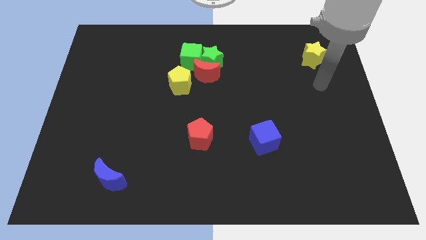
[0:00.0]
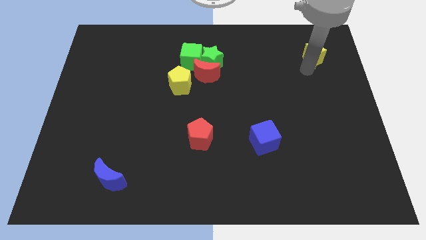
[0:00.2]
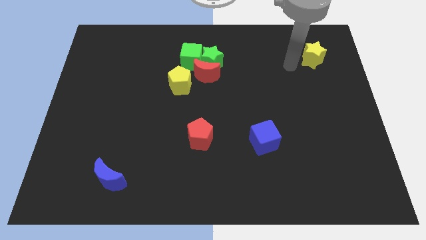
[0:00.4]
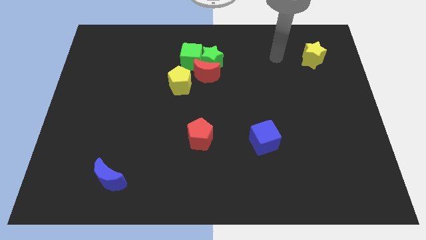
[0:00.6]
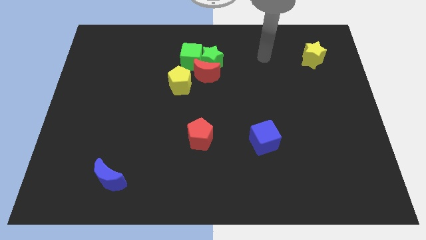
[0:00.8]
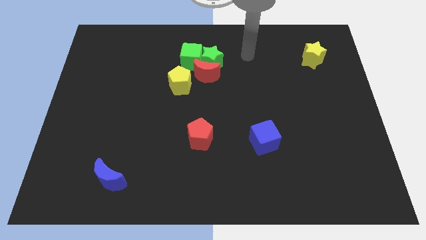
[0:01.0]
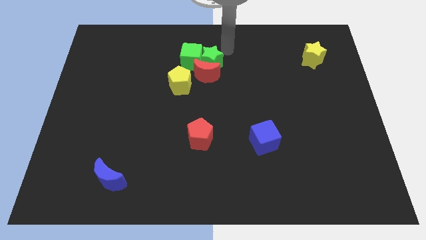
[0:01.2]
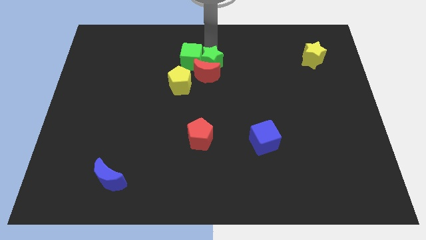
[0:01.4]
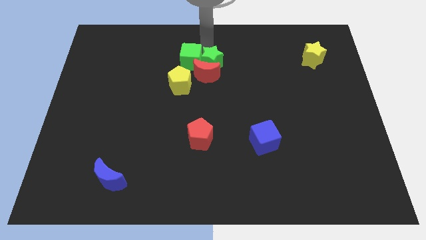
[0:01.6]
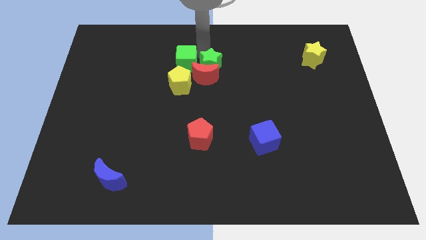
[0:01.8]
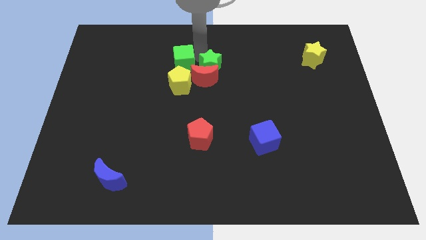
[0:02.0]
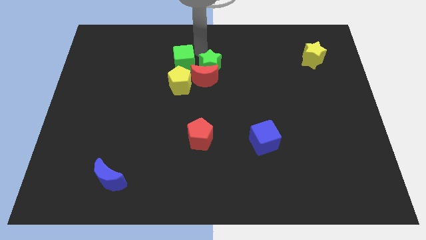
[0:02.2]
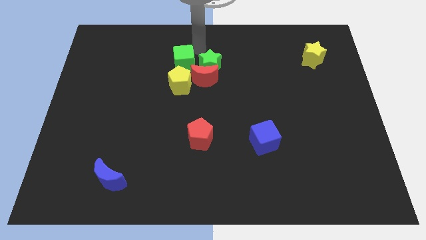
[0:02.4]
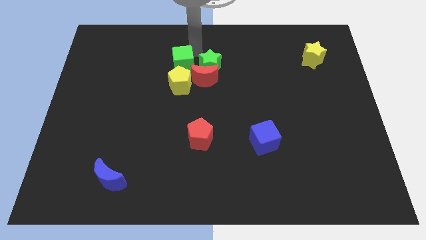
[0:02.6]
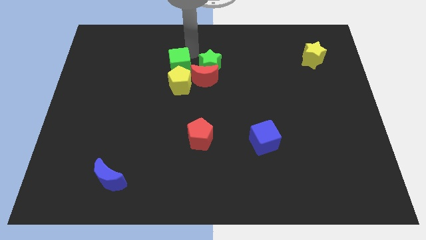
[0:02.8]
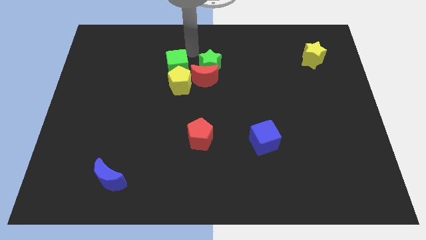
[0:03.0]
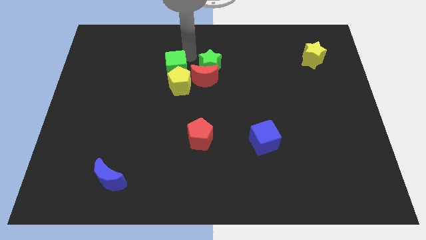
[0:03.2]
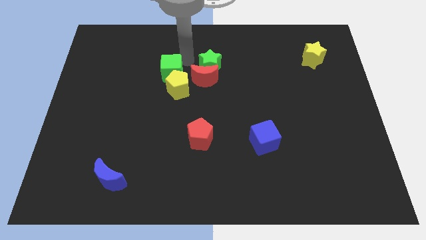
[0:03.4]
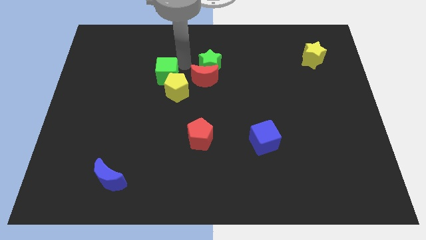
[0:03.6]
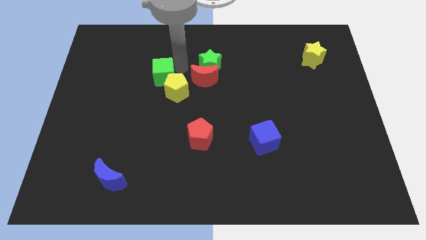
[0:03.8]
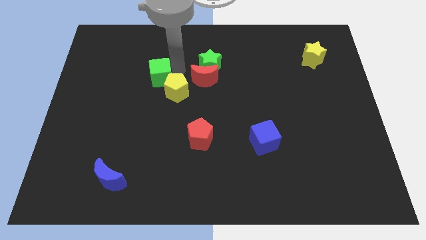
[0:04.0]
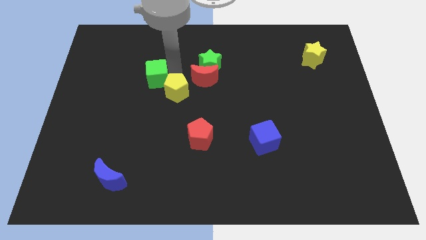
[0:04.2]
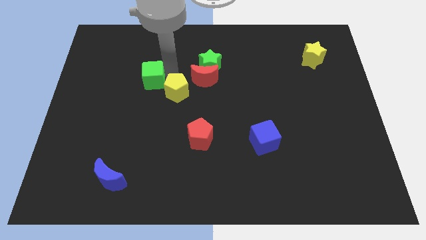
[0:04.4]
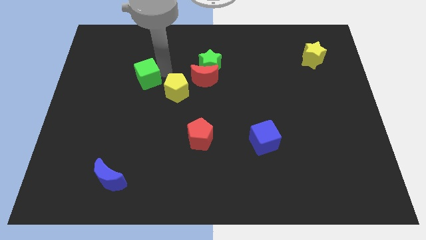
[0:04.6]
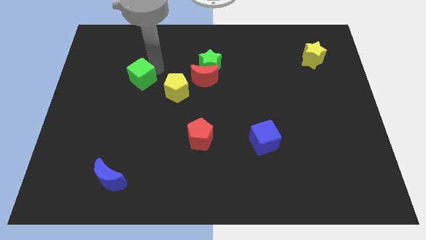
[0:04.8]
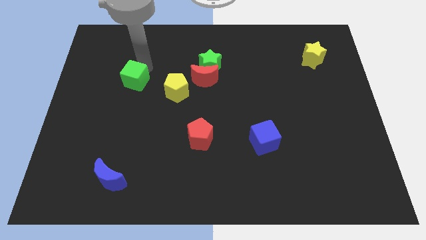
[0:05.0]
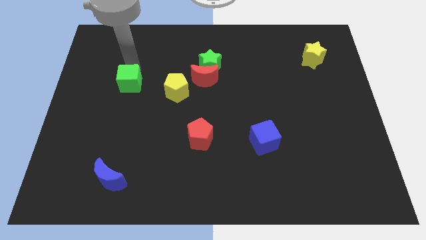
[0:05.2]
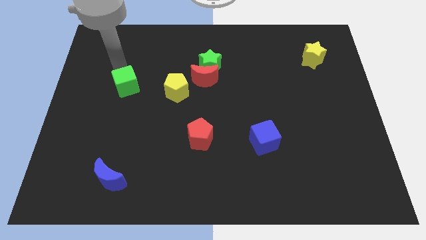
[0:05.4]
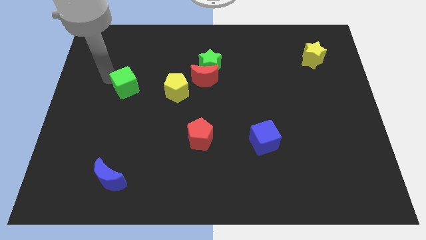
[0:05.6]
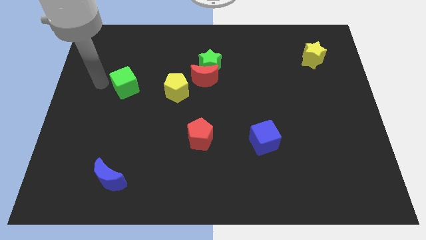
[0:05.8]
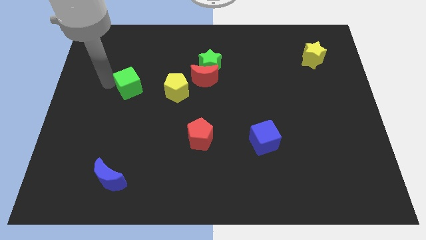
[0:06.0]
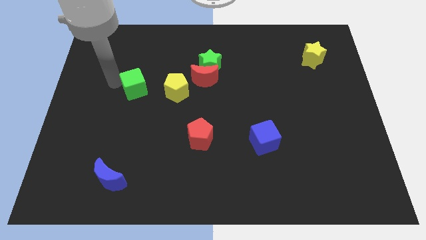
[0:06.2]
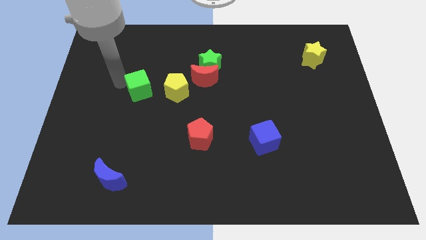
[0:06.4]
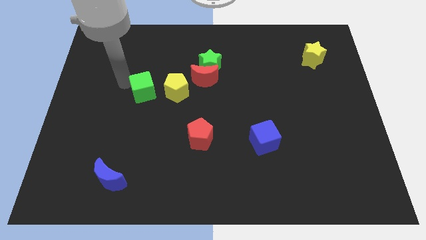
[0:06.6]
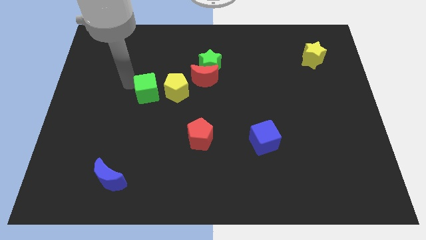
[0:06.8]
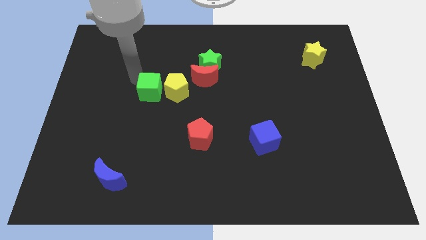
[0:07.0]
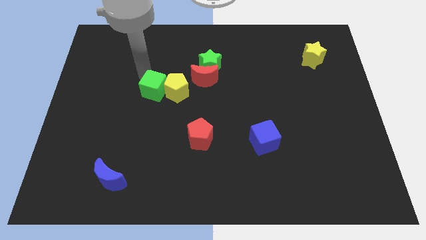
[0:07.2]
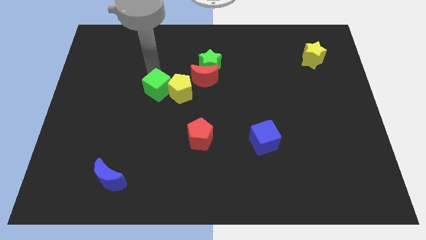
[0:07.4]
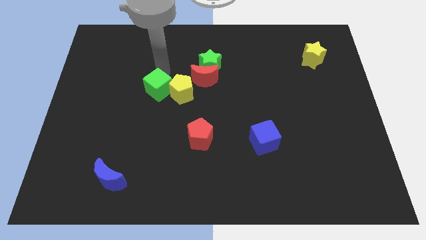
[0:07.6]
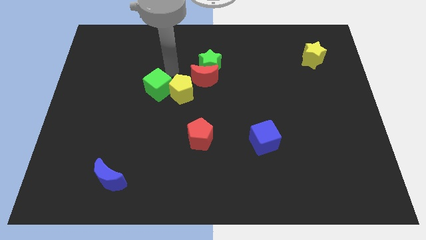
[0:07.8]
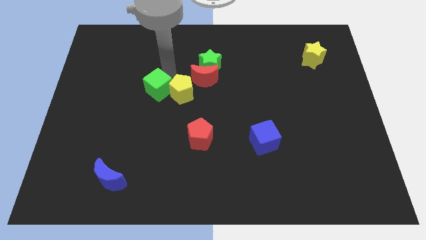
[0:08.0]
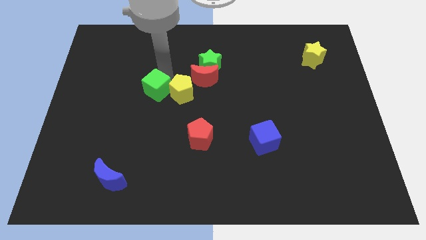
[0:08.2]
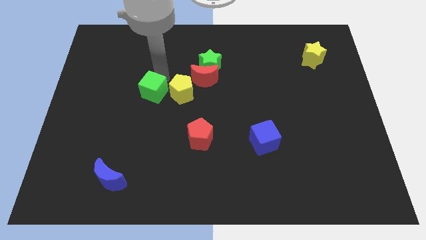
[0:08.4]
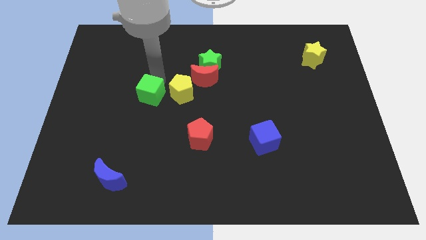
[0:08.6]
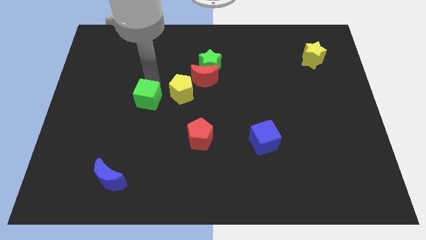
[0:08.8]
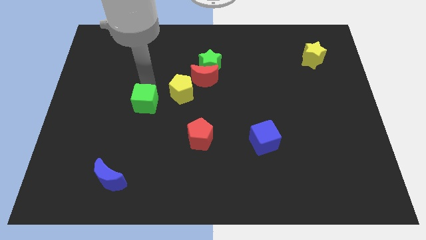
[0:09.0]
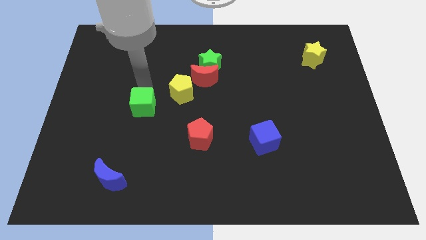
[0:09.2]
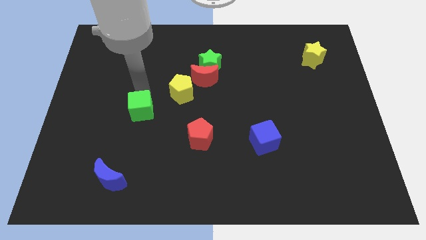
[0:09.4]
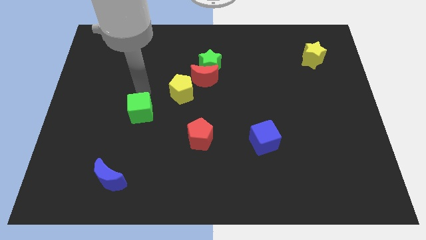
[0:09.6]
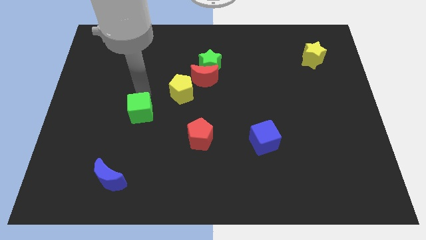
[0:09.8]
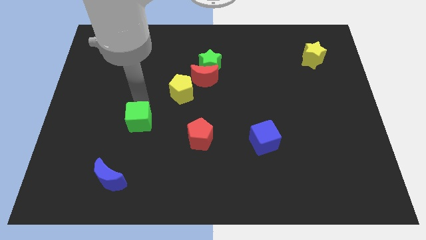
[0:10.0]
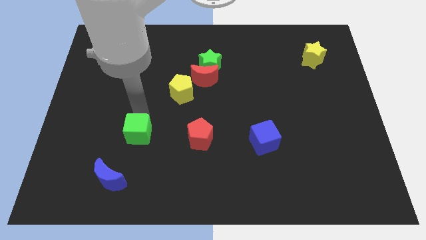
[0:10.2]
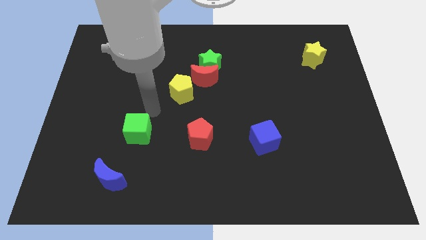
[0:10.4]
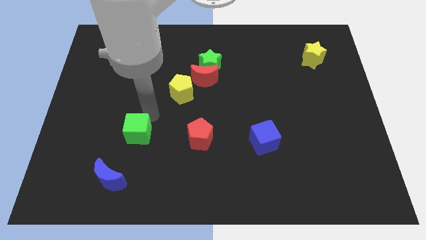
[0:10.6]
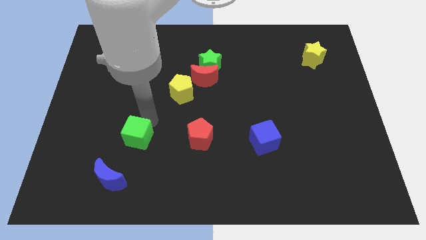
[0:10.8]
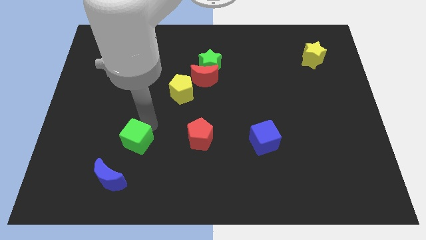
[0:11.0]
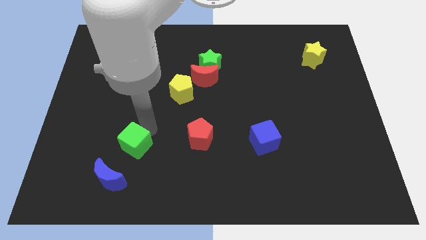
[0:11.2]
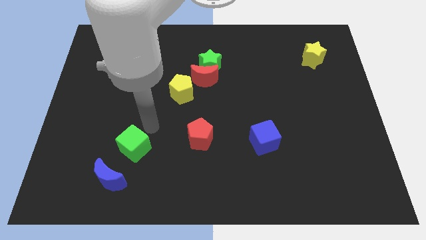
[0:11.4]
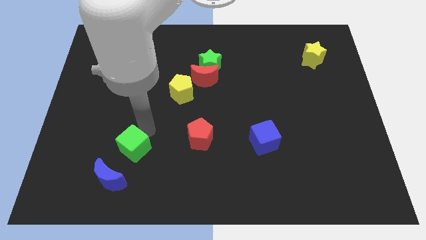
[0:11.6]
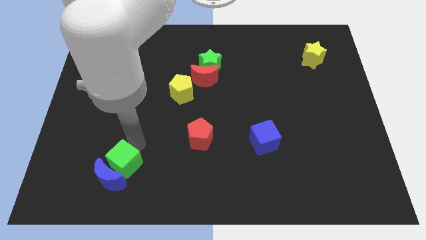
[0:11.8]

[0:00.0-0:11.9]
move the green cube close to the blue moon
